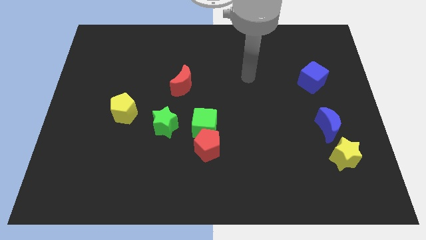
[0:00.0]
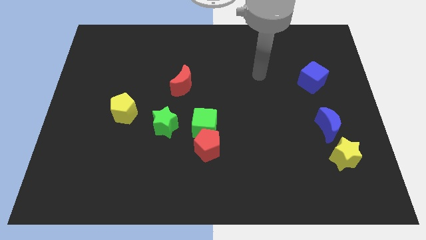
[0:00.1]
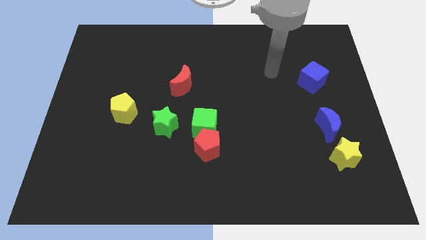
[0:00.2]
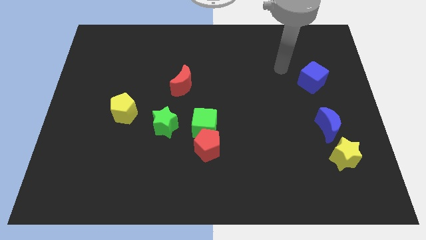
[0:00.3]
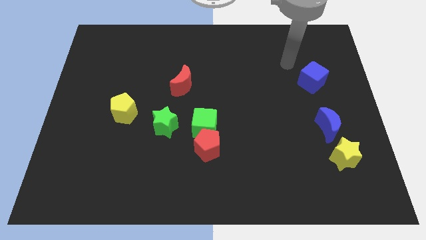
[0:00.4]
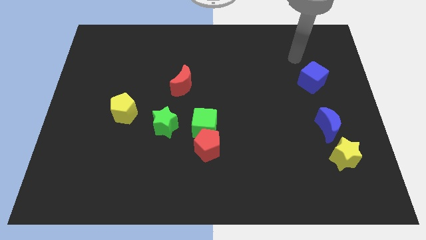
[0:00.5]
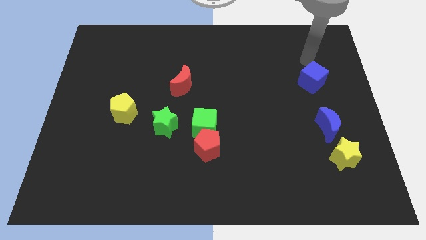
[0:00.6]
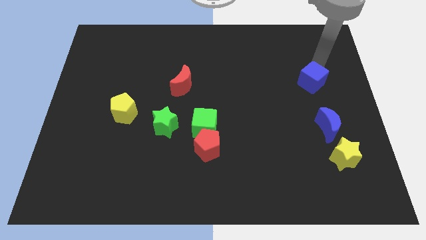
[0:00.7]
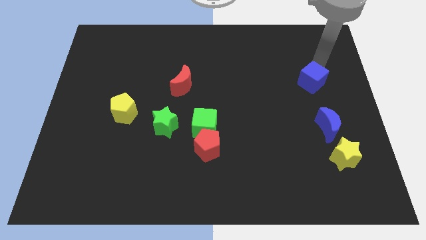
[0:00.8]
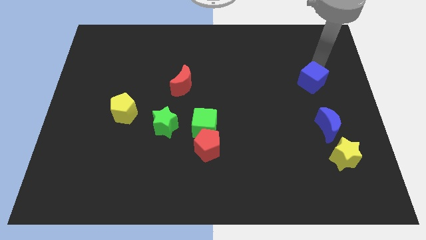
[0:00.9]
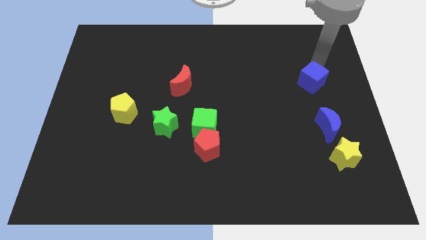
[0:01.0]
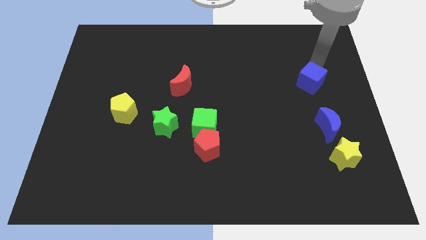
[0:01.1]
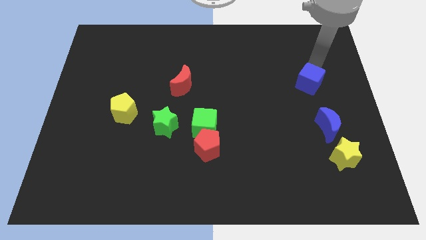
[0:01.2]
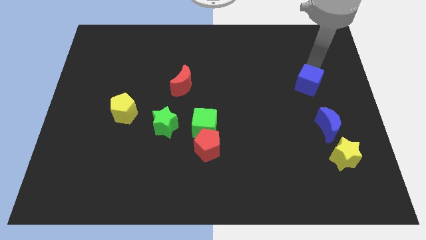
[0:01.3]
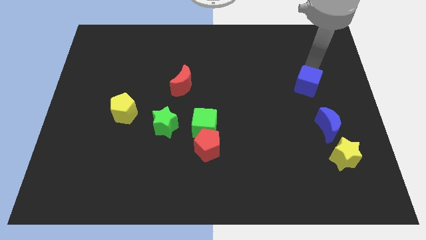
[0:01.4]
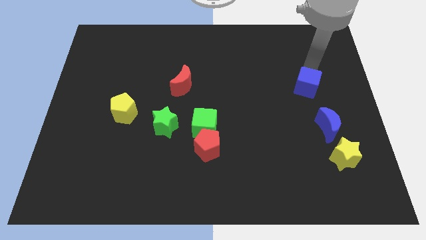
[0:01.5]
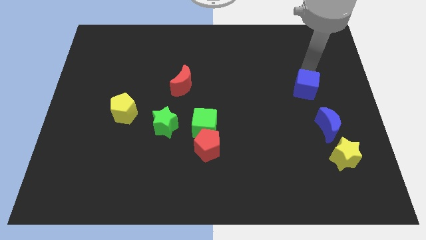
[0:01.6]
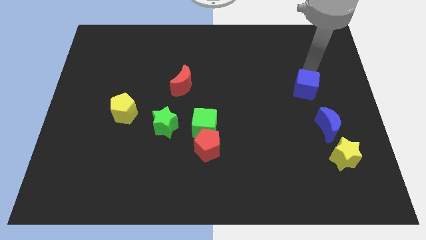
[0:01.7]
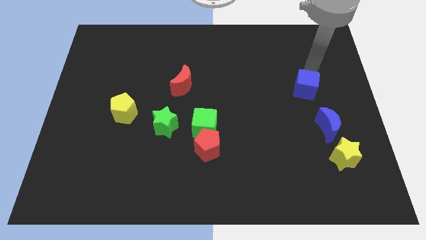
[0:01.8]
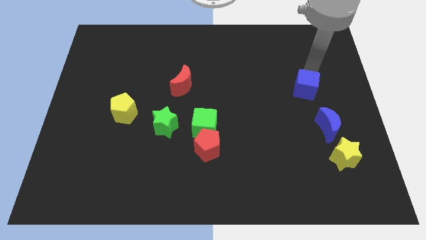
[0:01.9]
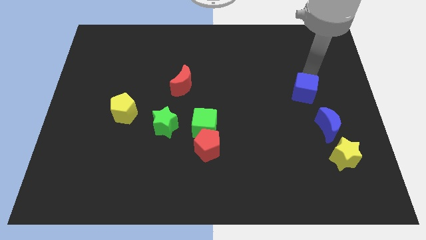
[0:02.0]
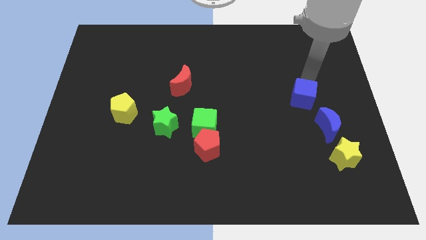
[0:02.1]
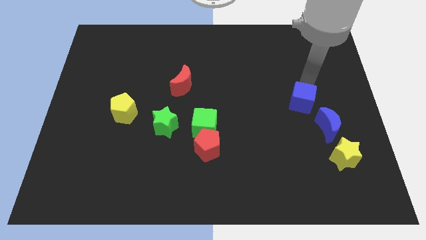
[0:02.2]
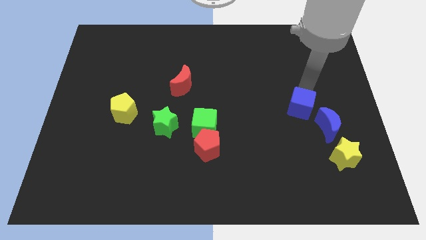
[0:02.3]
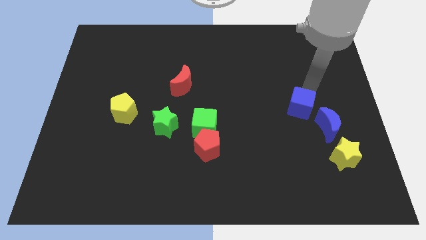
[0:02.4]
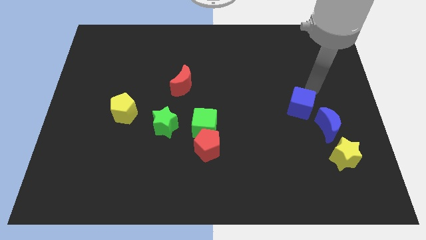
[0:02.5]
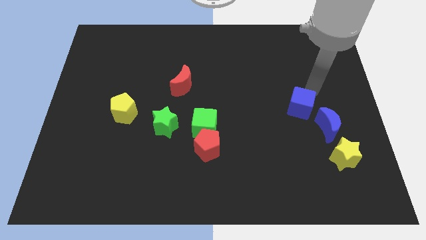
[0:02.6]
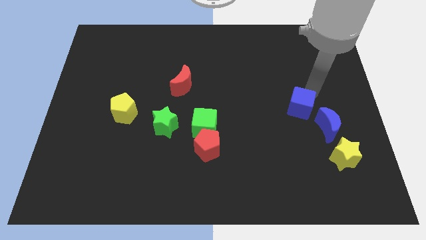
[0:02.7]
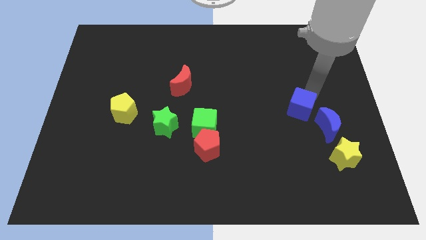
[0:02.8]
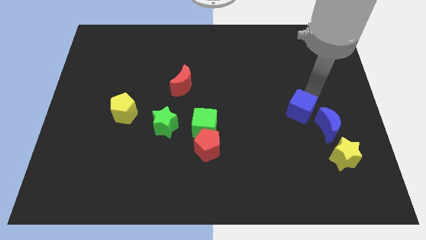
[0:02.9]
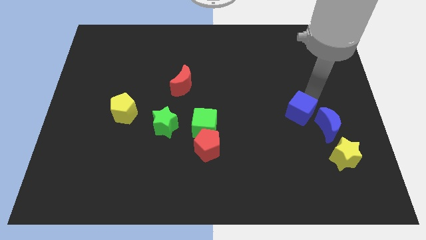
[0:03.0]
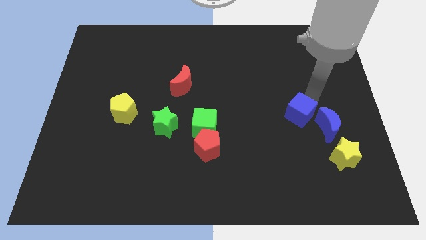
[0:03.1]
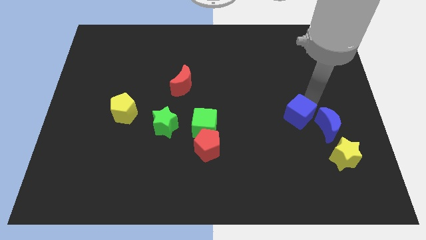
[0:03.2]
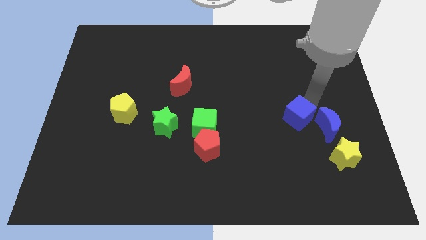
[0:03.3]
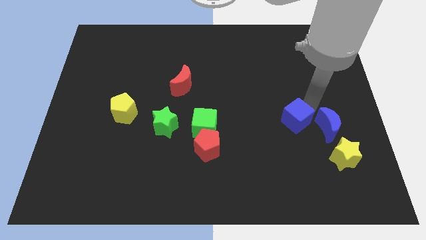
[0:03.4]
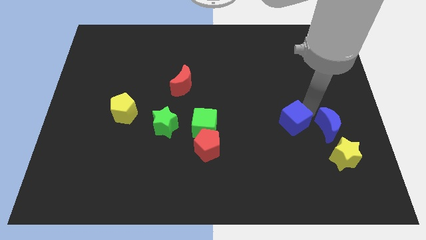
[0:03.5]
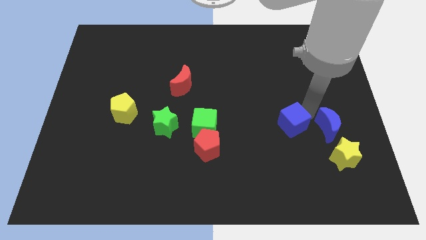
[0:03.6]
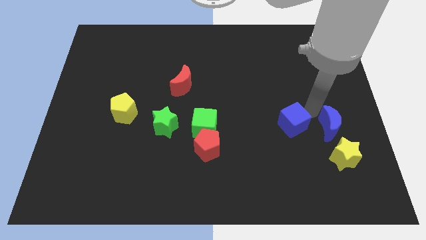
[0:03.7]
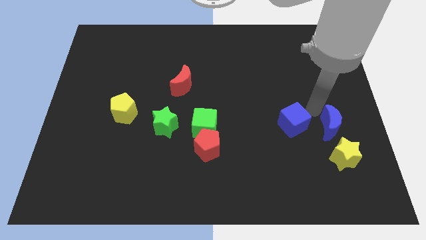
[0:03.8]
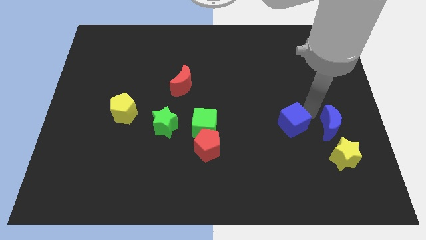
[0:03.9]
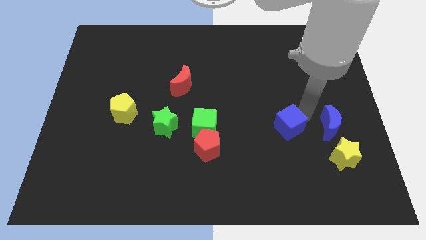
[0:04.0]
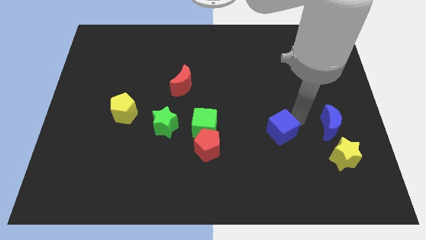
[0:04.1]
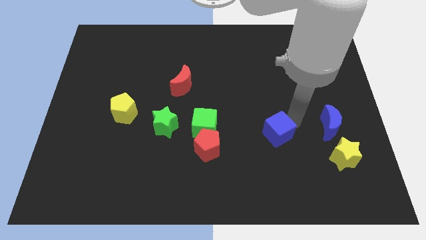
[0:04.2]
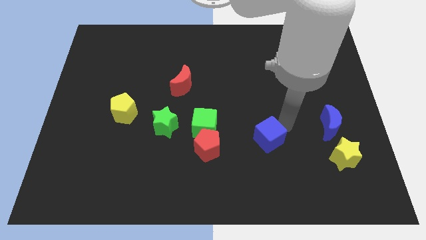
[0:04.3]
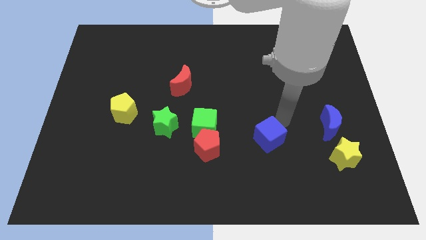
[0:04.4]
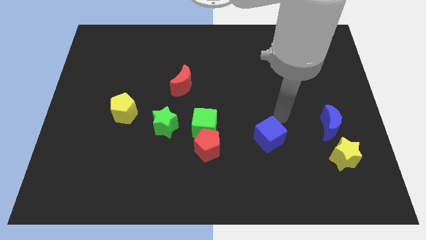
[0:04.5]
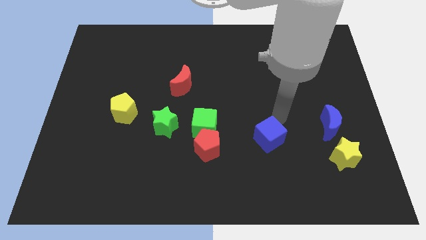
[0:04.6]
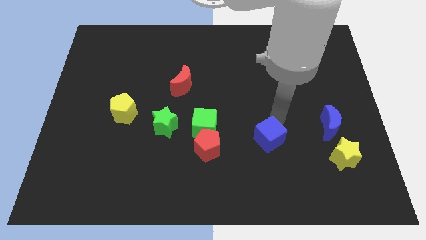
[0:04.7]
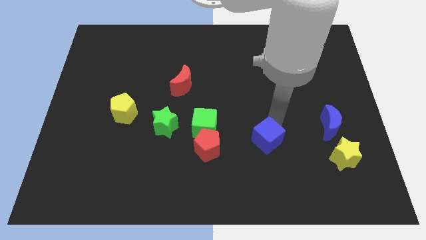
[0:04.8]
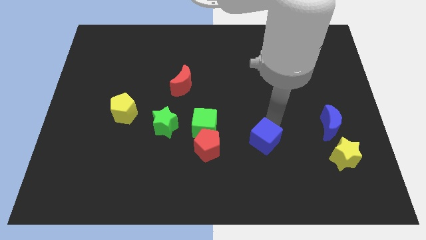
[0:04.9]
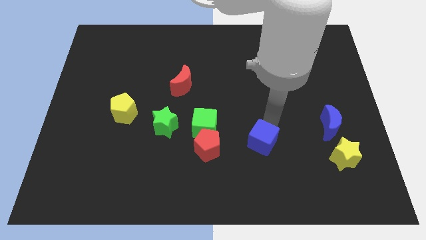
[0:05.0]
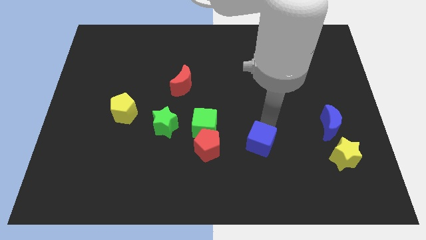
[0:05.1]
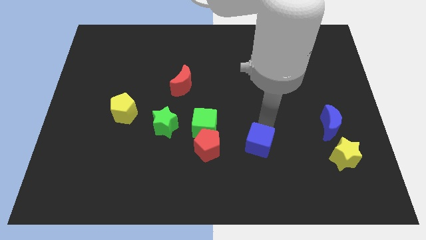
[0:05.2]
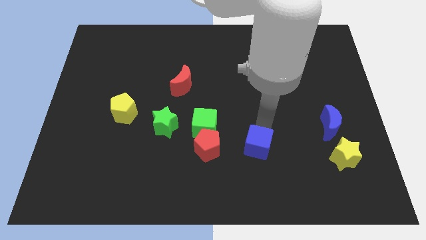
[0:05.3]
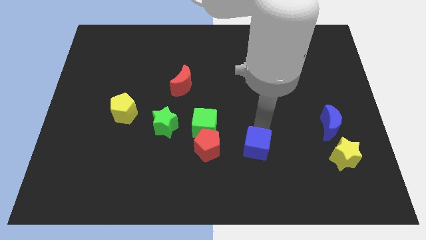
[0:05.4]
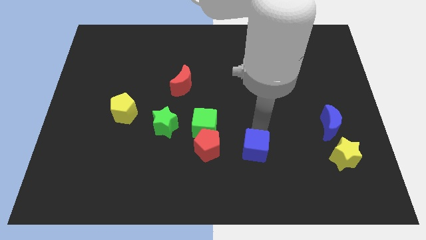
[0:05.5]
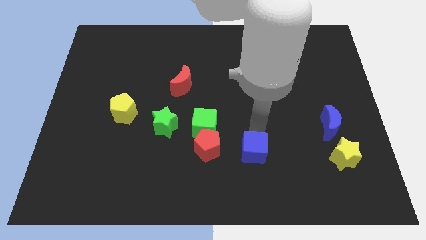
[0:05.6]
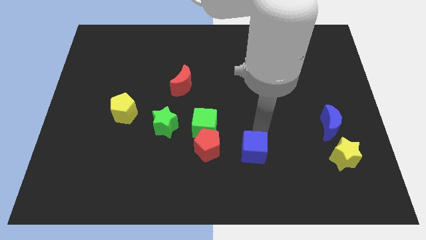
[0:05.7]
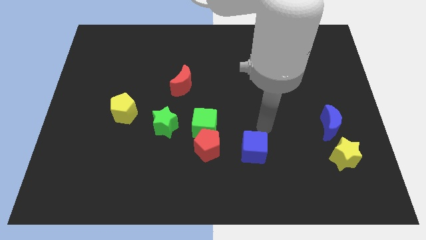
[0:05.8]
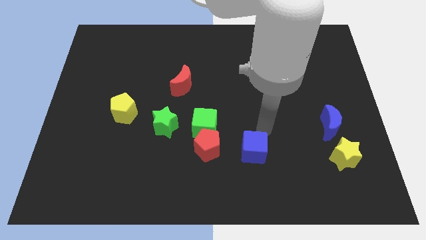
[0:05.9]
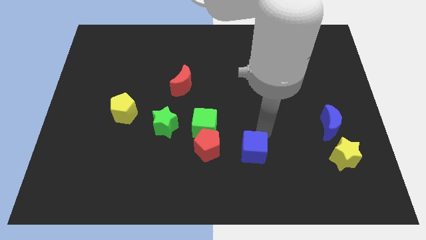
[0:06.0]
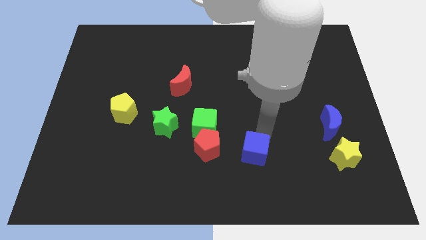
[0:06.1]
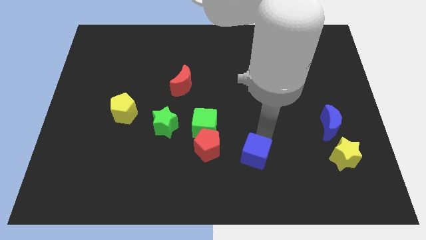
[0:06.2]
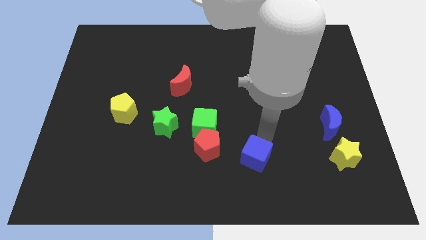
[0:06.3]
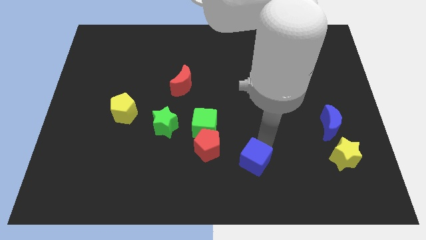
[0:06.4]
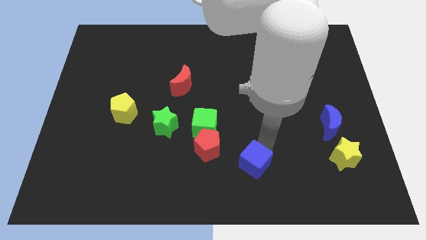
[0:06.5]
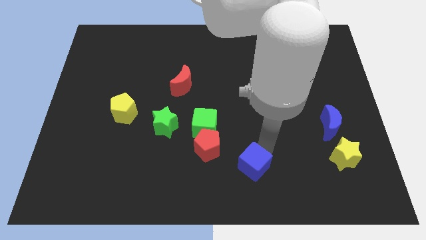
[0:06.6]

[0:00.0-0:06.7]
push the blue cube to the bottom
